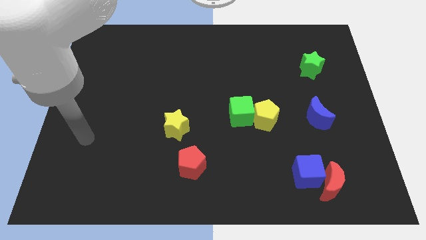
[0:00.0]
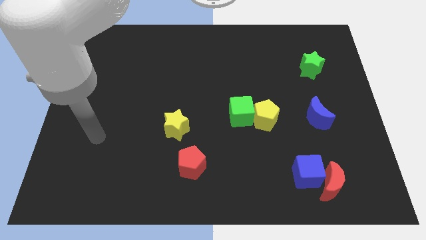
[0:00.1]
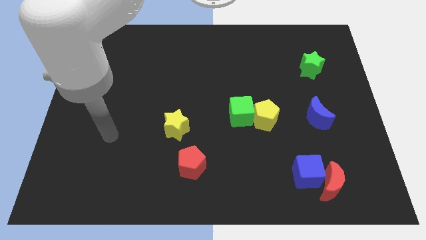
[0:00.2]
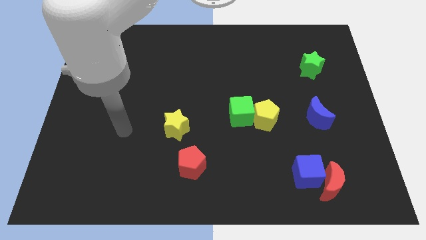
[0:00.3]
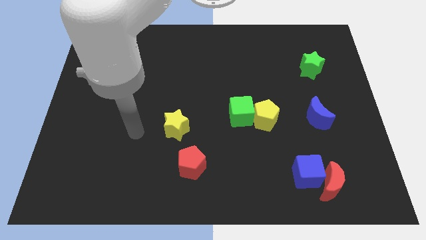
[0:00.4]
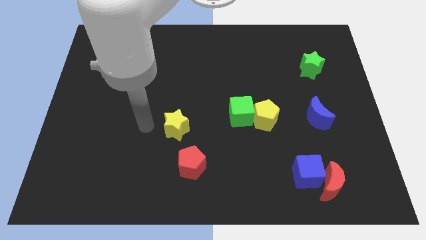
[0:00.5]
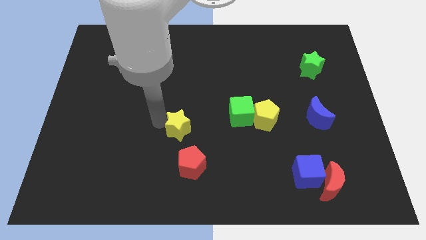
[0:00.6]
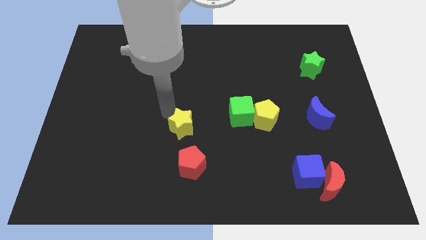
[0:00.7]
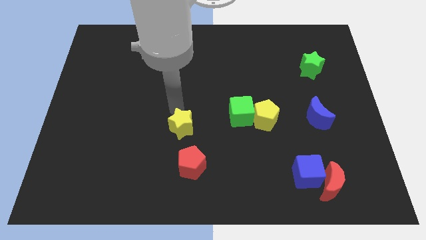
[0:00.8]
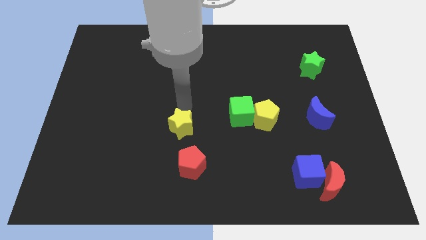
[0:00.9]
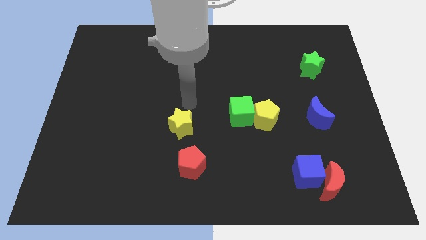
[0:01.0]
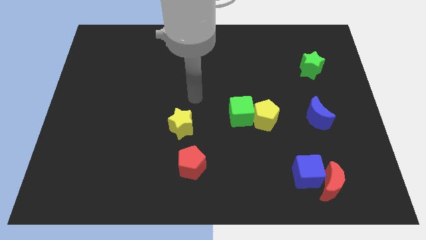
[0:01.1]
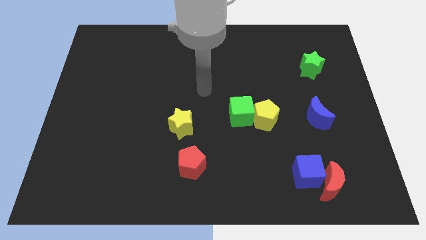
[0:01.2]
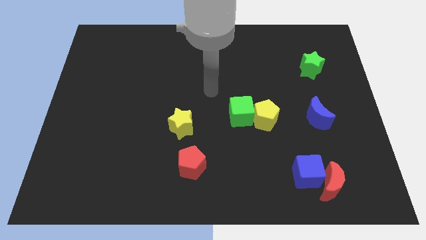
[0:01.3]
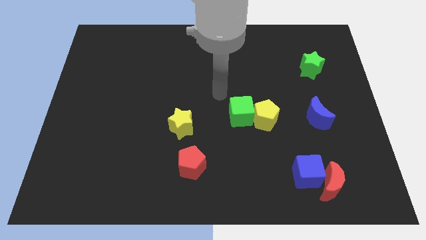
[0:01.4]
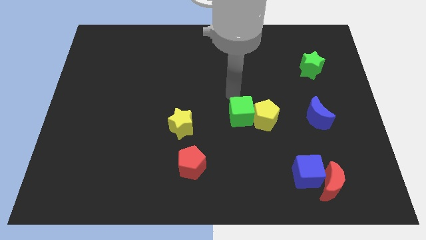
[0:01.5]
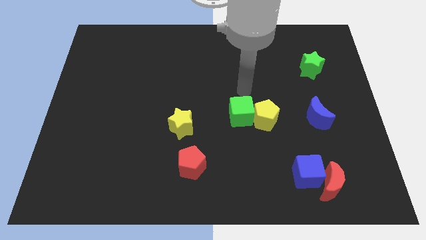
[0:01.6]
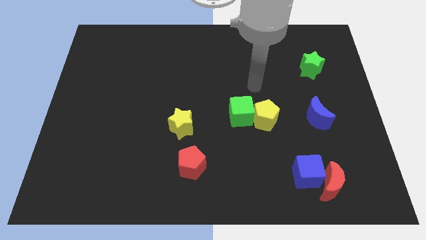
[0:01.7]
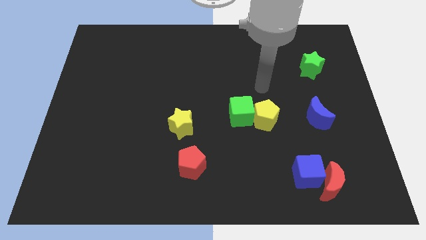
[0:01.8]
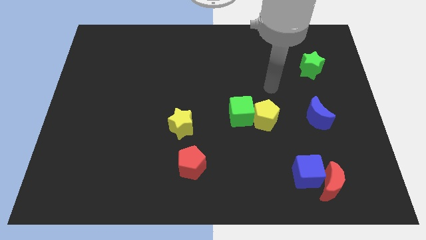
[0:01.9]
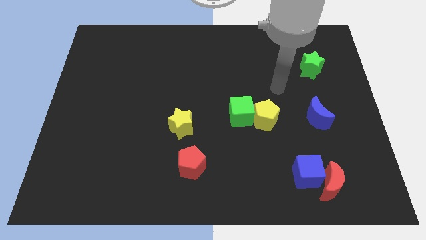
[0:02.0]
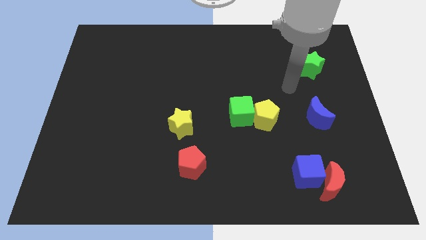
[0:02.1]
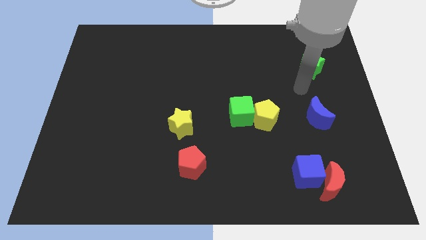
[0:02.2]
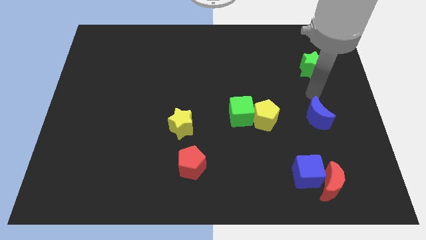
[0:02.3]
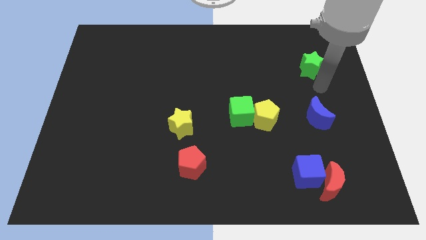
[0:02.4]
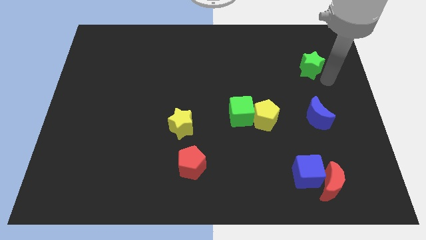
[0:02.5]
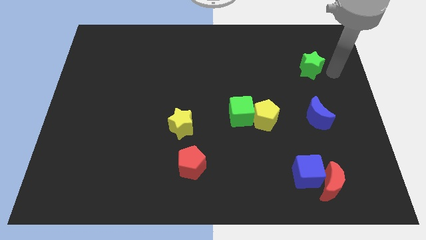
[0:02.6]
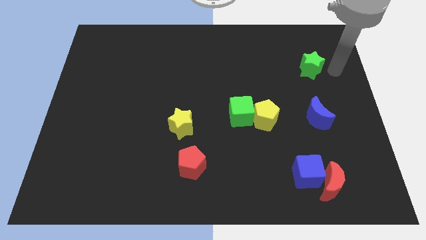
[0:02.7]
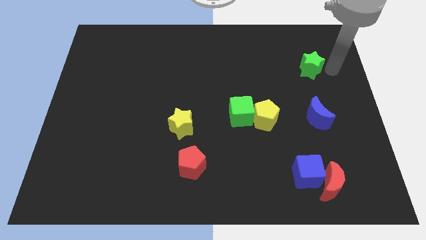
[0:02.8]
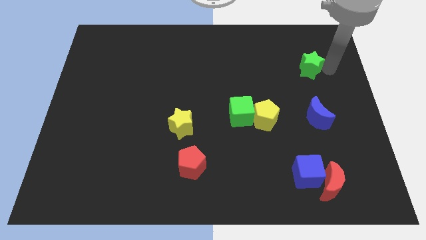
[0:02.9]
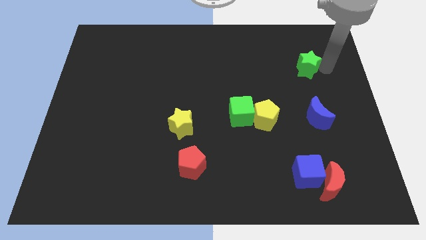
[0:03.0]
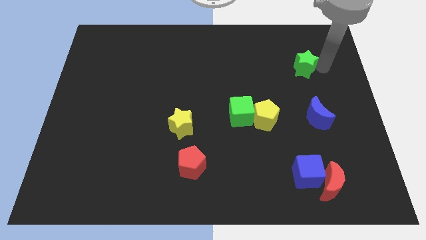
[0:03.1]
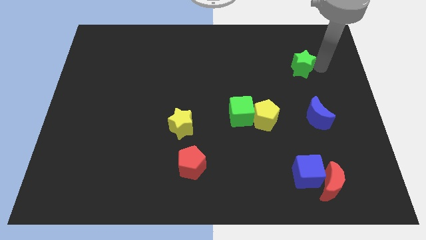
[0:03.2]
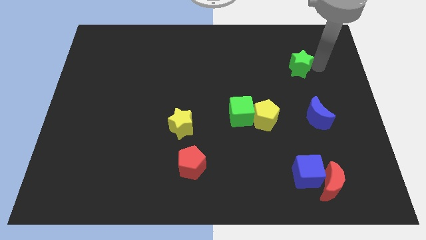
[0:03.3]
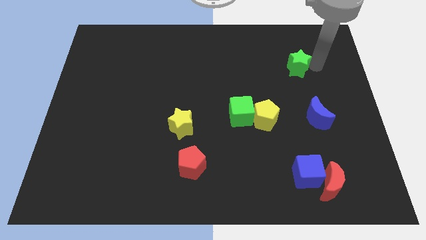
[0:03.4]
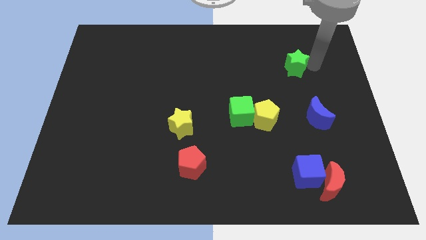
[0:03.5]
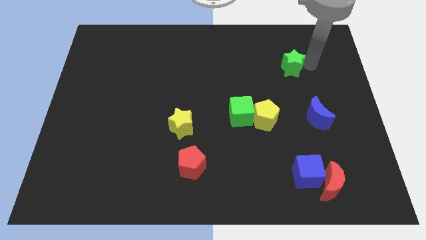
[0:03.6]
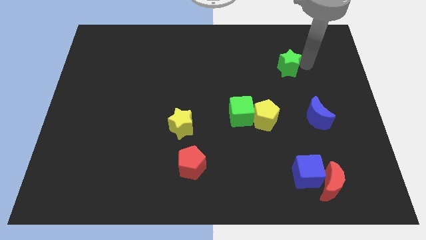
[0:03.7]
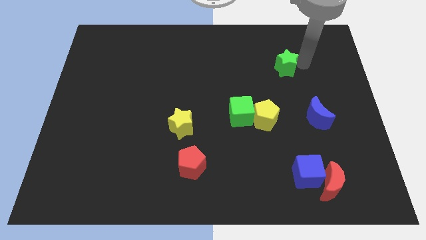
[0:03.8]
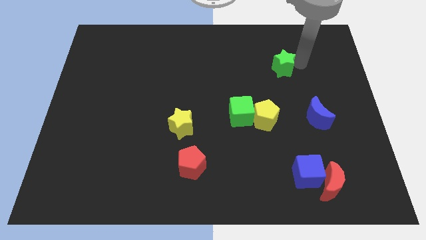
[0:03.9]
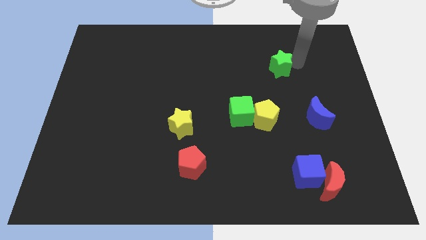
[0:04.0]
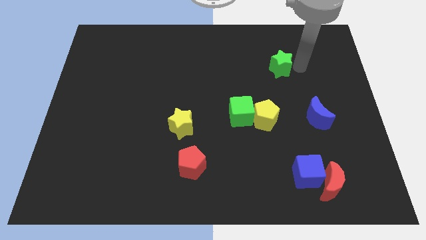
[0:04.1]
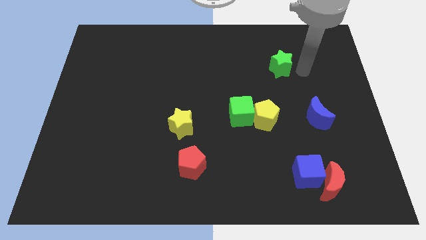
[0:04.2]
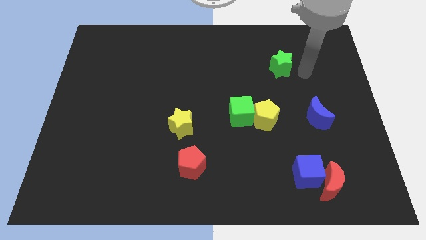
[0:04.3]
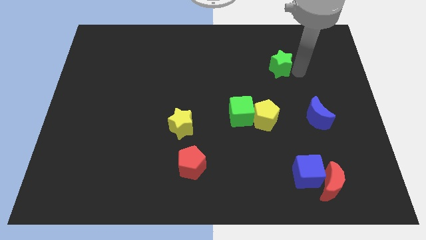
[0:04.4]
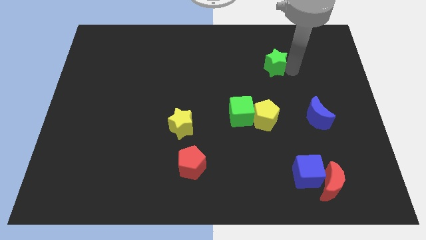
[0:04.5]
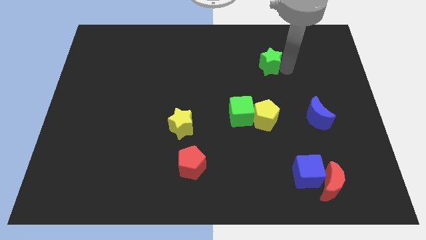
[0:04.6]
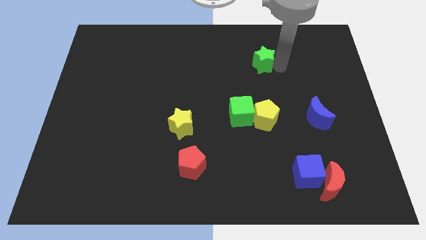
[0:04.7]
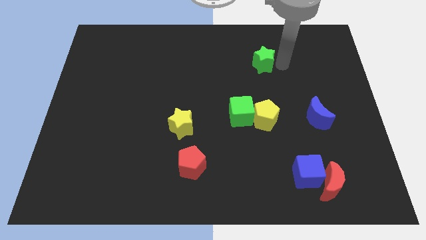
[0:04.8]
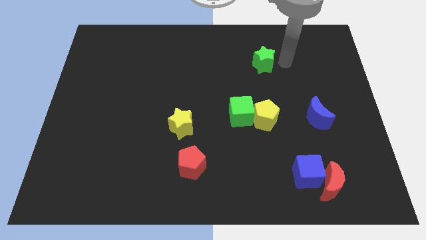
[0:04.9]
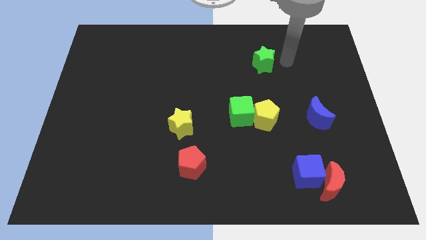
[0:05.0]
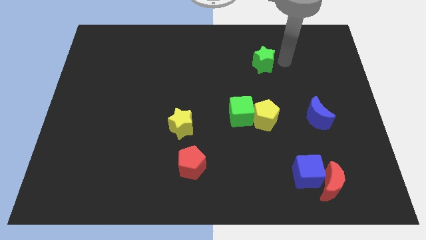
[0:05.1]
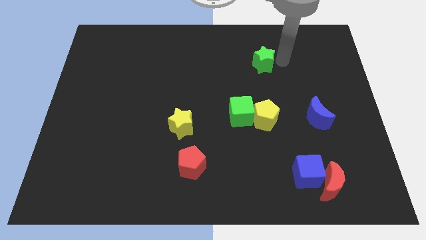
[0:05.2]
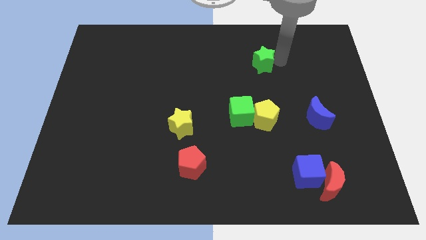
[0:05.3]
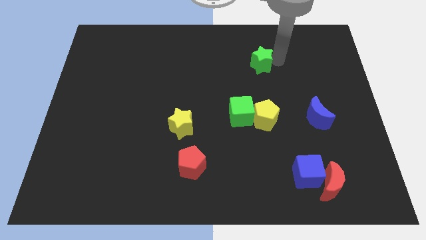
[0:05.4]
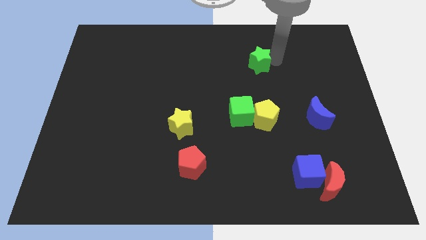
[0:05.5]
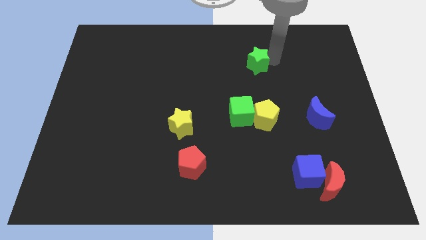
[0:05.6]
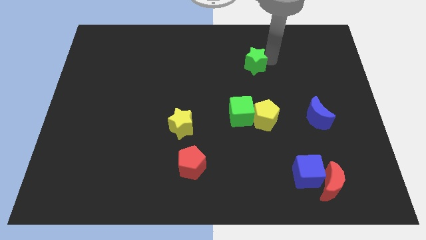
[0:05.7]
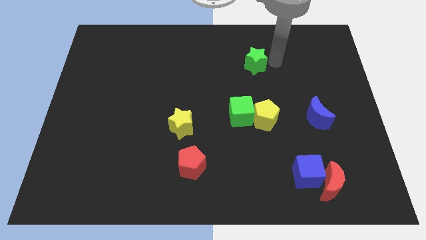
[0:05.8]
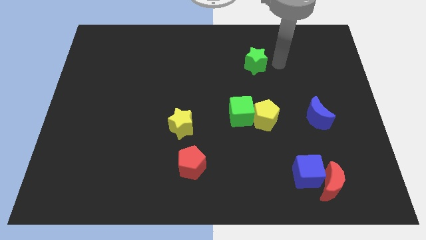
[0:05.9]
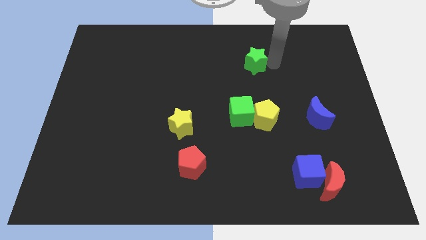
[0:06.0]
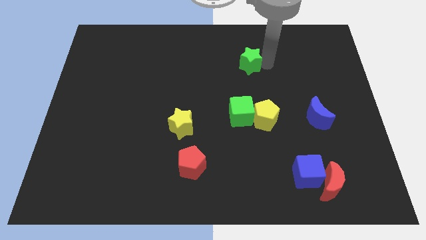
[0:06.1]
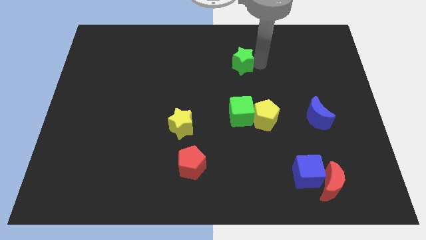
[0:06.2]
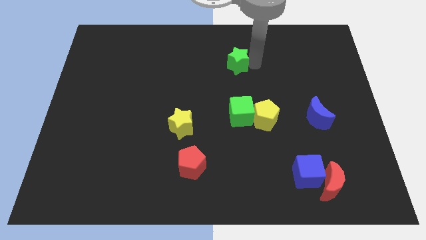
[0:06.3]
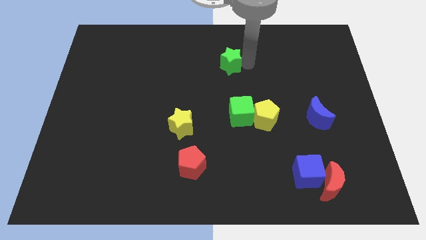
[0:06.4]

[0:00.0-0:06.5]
push the green star to the left

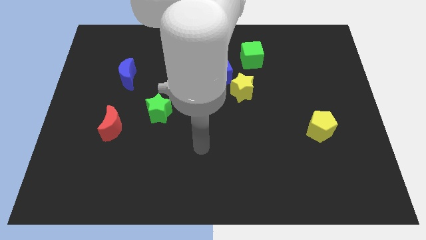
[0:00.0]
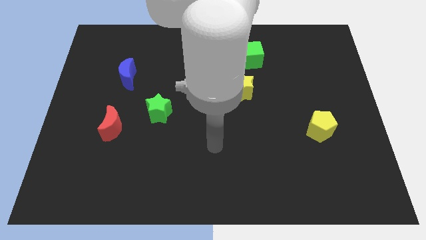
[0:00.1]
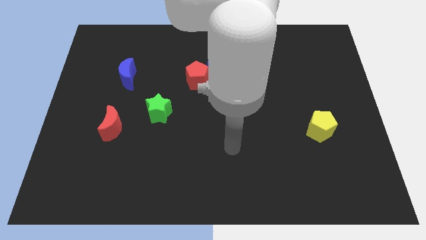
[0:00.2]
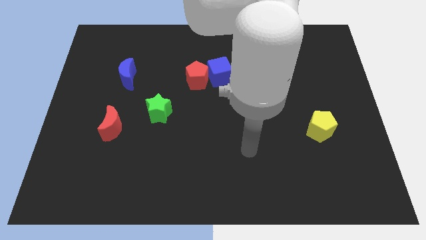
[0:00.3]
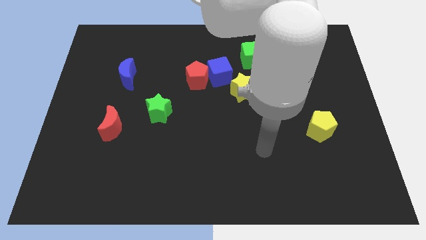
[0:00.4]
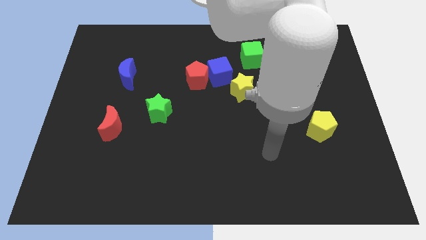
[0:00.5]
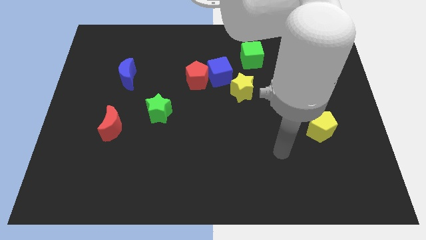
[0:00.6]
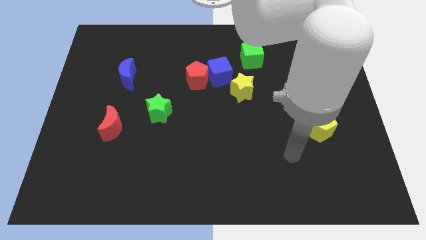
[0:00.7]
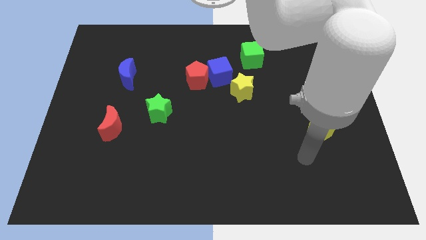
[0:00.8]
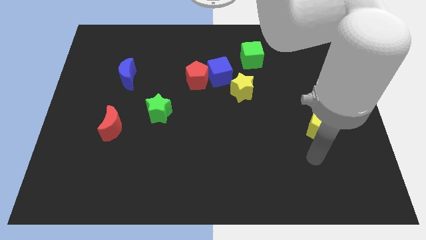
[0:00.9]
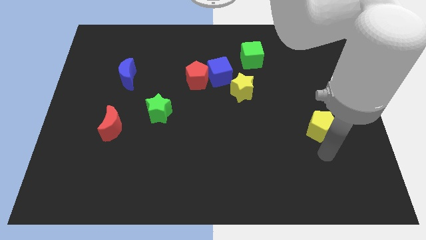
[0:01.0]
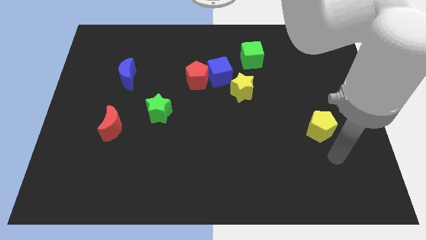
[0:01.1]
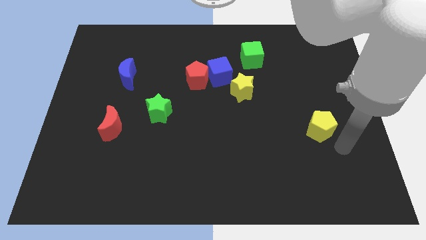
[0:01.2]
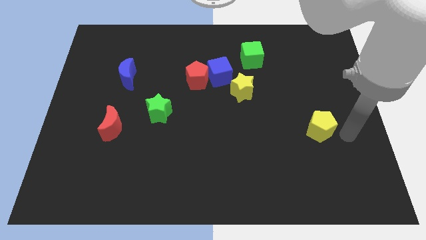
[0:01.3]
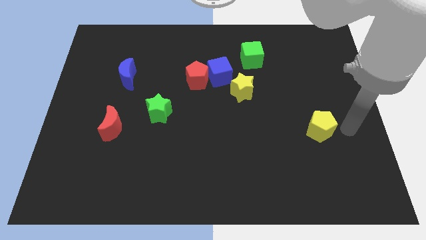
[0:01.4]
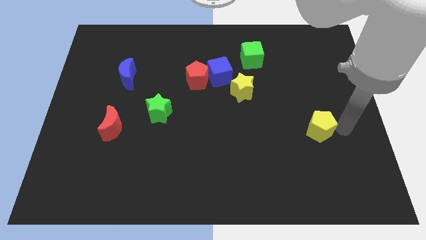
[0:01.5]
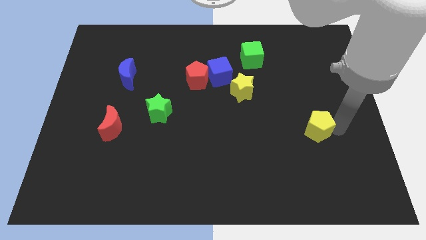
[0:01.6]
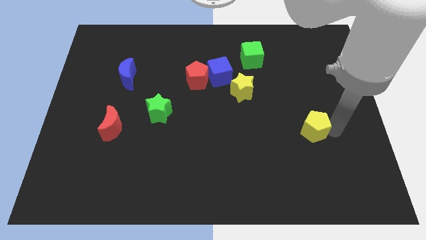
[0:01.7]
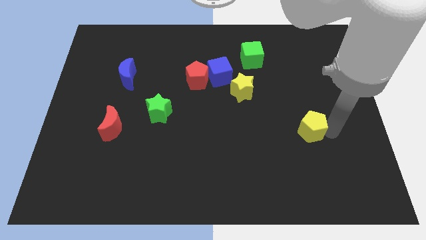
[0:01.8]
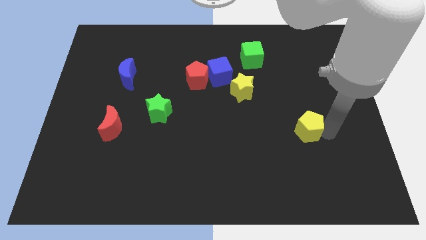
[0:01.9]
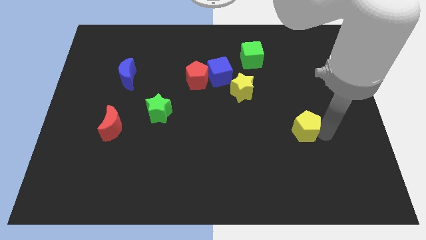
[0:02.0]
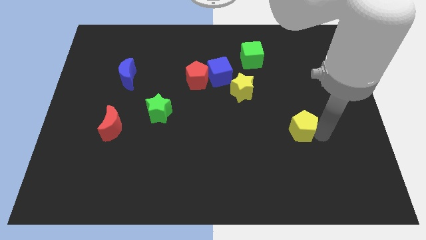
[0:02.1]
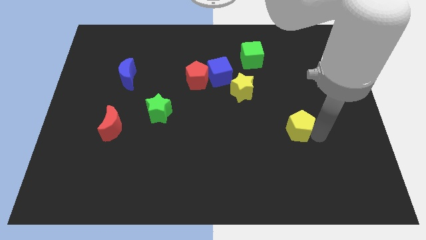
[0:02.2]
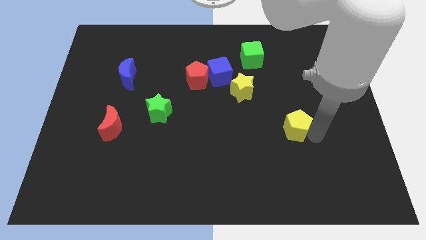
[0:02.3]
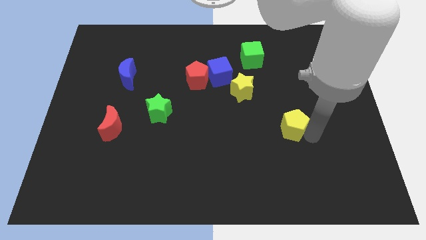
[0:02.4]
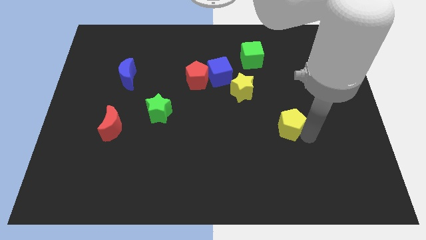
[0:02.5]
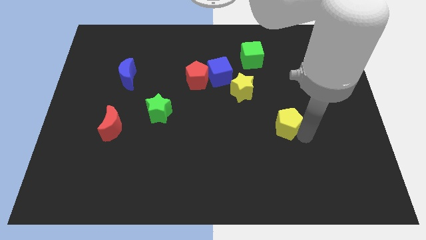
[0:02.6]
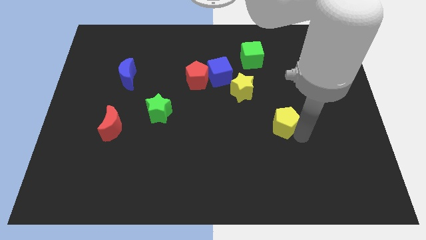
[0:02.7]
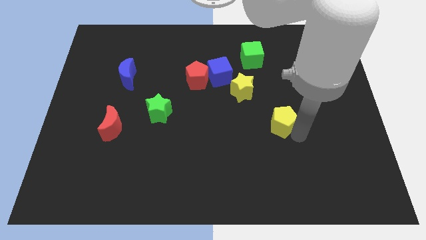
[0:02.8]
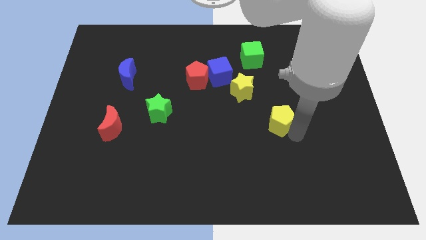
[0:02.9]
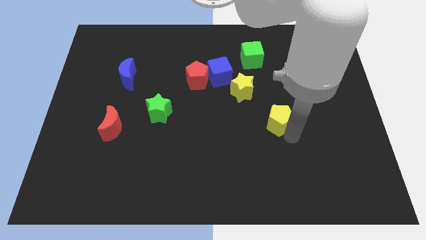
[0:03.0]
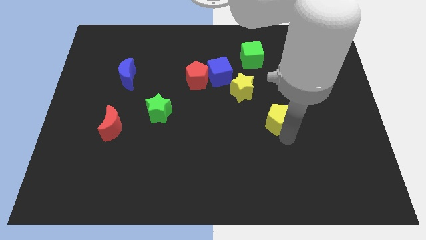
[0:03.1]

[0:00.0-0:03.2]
slide the yellow pentagon up and left a bit
